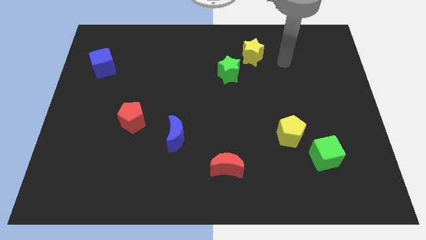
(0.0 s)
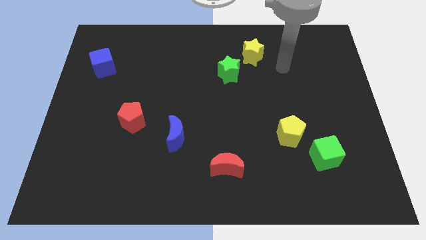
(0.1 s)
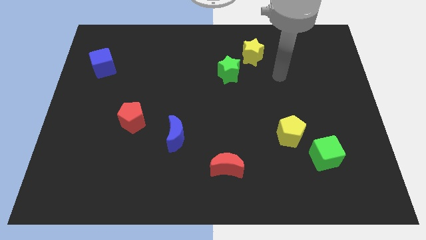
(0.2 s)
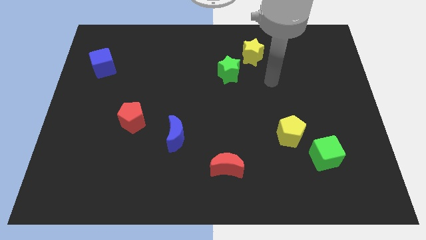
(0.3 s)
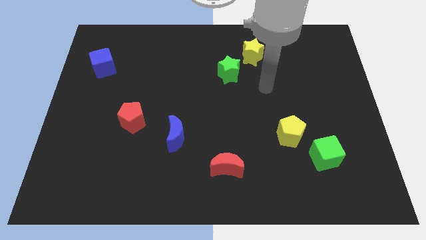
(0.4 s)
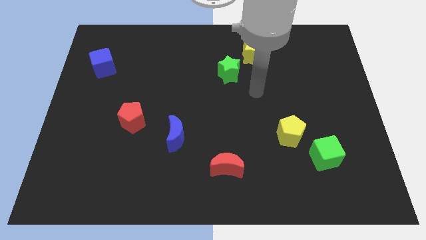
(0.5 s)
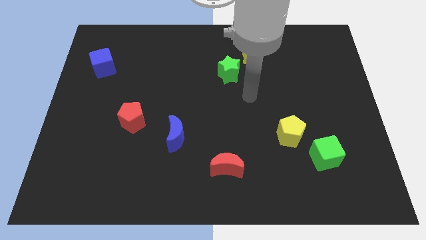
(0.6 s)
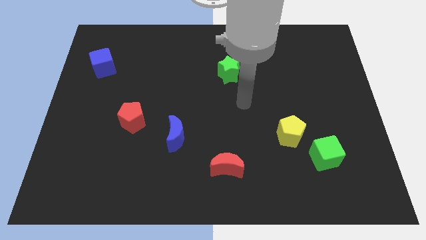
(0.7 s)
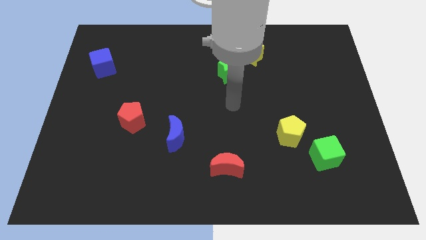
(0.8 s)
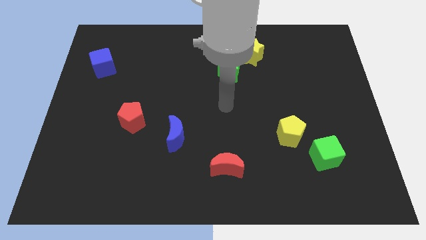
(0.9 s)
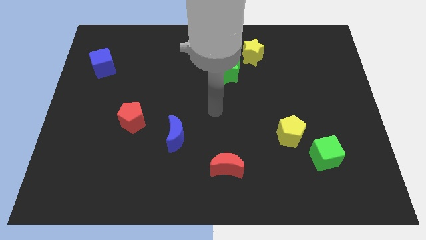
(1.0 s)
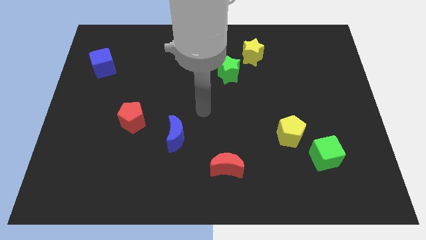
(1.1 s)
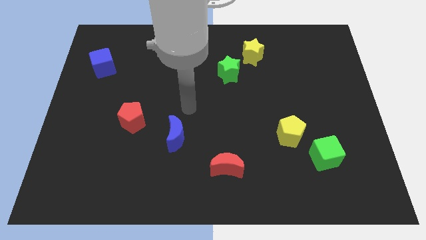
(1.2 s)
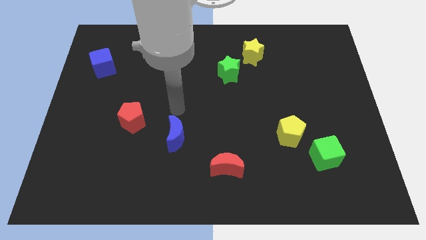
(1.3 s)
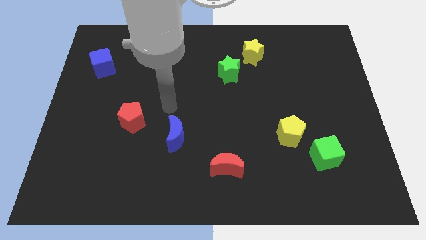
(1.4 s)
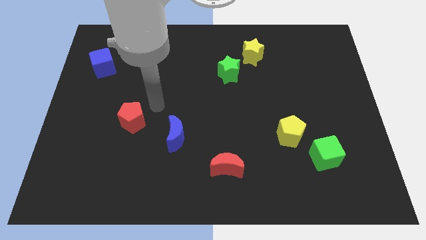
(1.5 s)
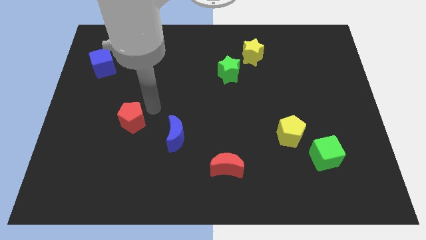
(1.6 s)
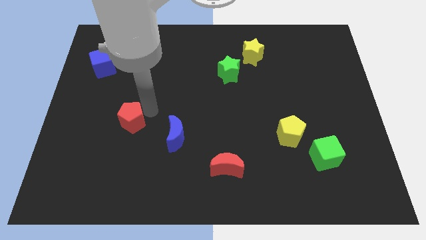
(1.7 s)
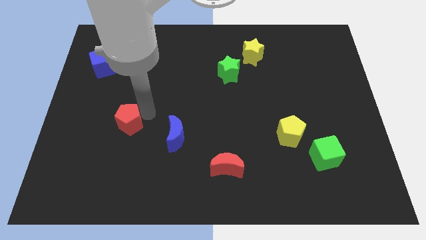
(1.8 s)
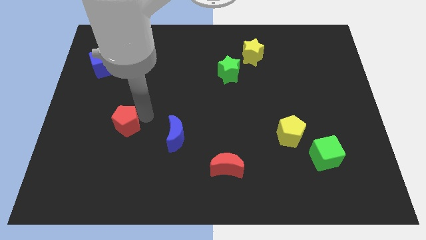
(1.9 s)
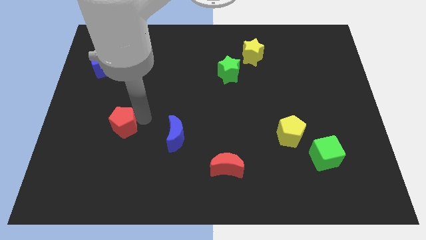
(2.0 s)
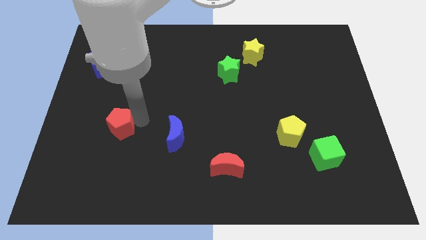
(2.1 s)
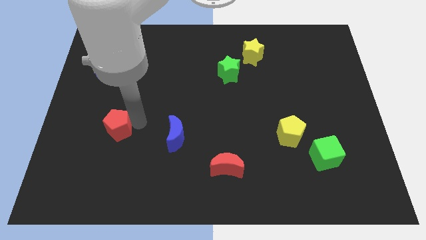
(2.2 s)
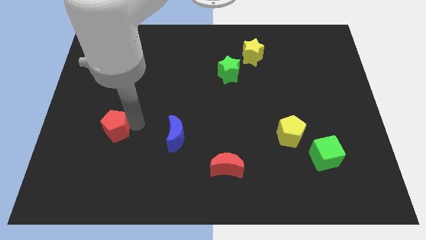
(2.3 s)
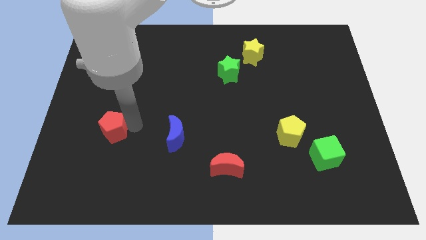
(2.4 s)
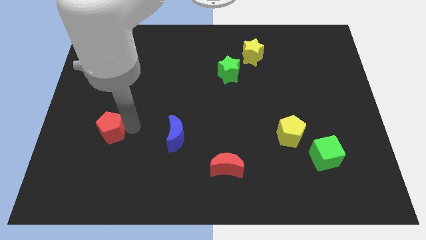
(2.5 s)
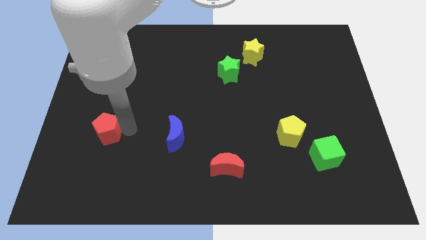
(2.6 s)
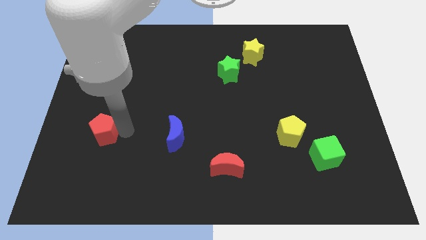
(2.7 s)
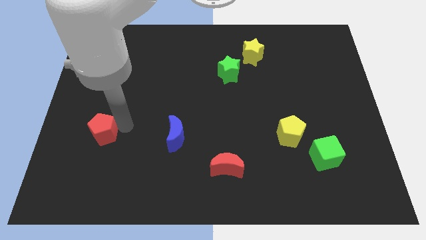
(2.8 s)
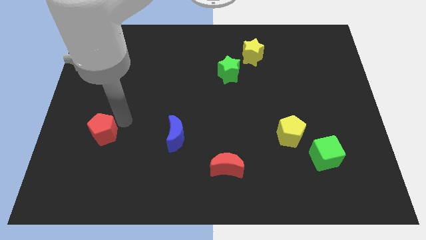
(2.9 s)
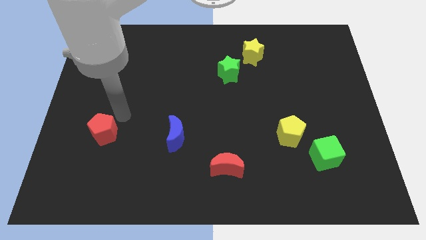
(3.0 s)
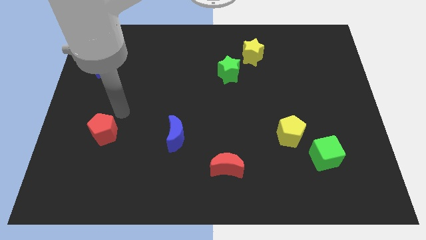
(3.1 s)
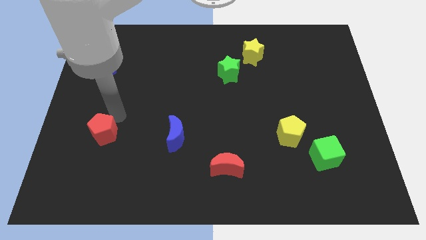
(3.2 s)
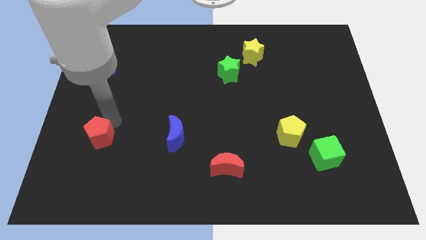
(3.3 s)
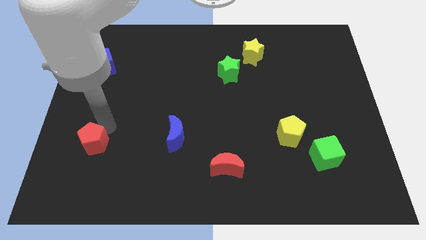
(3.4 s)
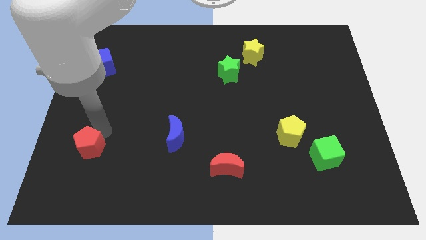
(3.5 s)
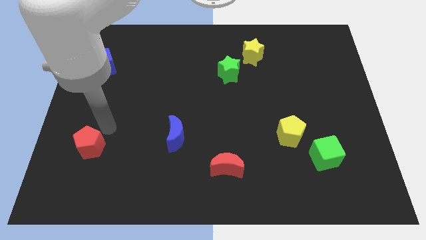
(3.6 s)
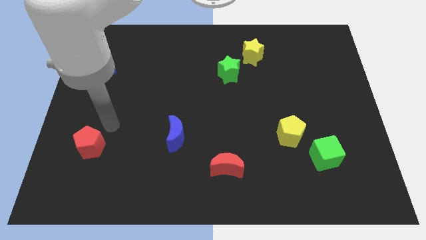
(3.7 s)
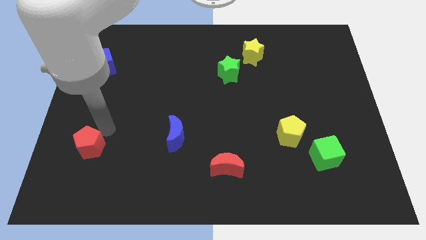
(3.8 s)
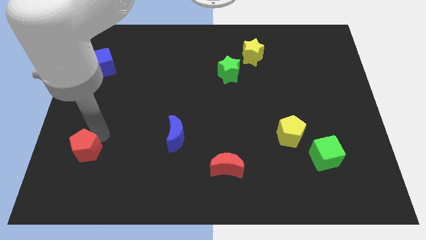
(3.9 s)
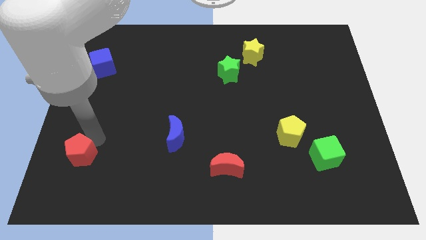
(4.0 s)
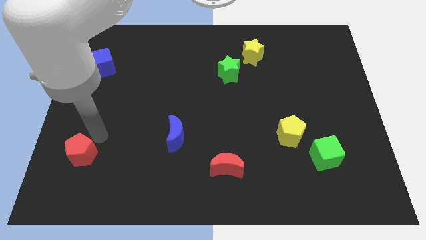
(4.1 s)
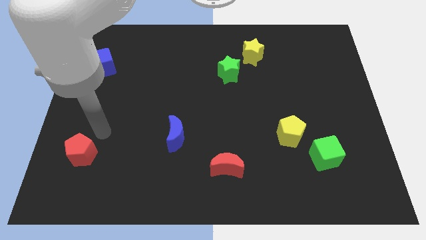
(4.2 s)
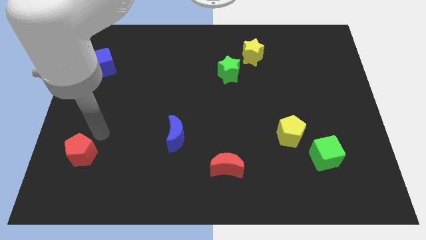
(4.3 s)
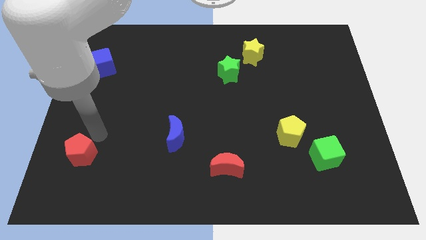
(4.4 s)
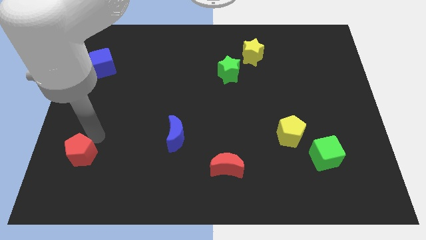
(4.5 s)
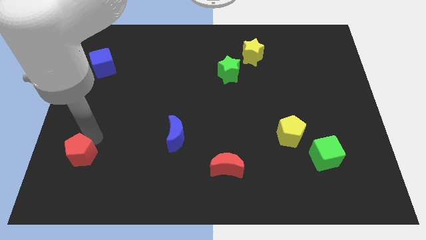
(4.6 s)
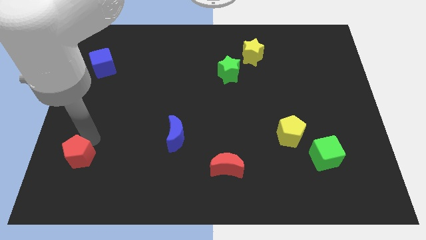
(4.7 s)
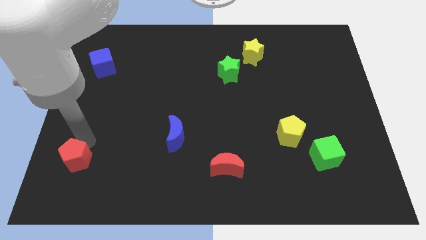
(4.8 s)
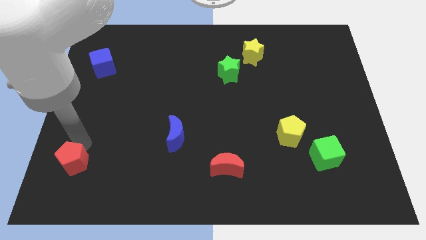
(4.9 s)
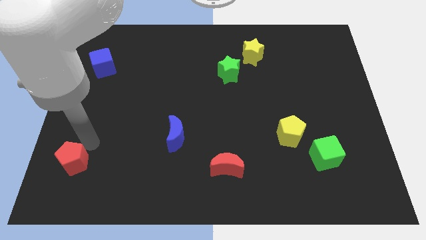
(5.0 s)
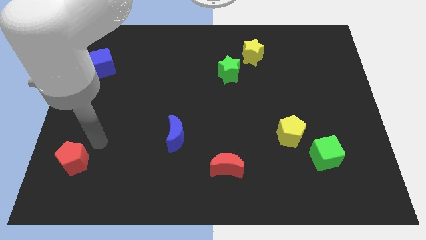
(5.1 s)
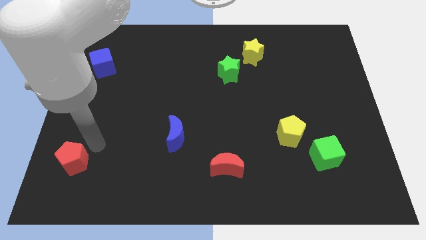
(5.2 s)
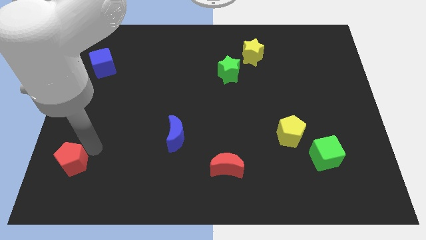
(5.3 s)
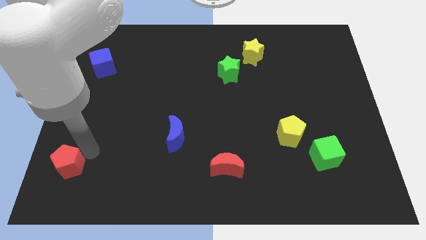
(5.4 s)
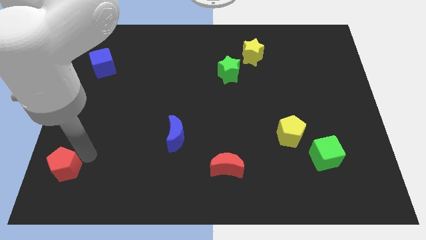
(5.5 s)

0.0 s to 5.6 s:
put the red pentagon to the bottom left of the board

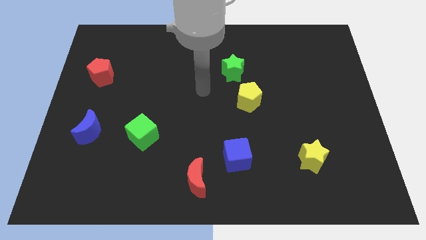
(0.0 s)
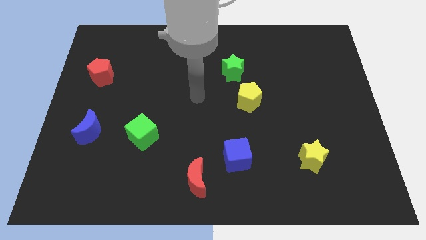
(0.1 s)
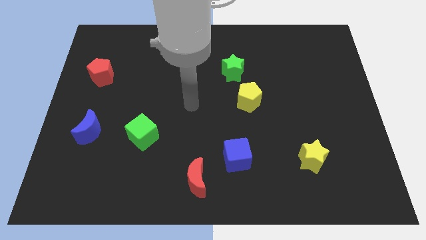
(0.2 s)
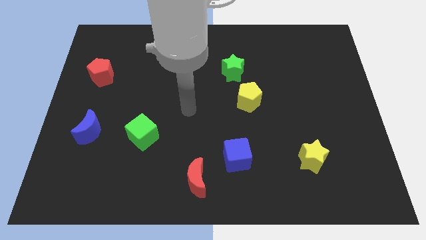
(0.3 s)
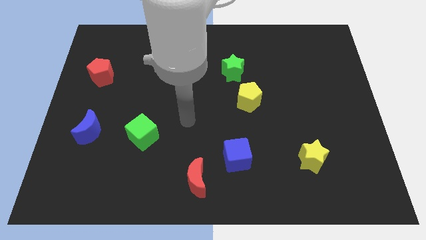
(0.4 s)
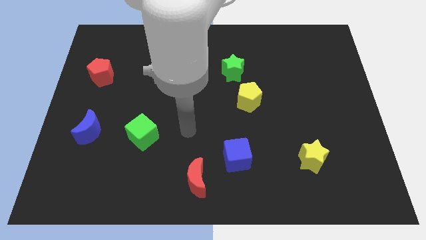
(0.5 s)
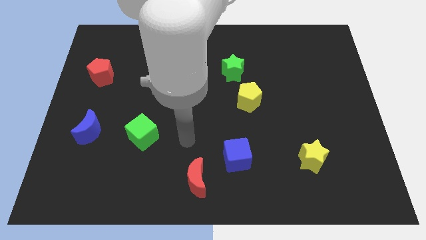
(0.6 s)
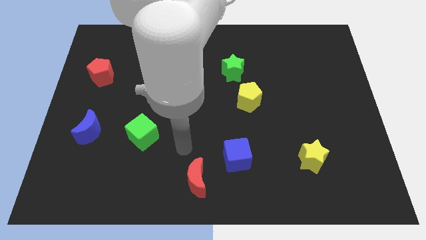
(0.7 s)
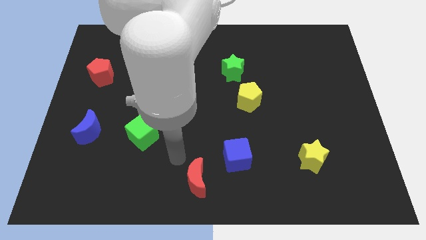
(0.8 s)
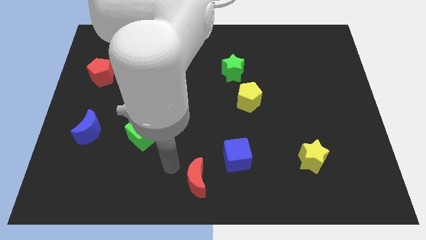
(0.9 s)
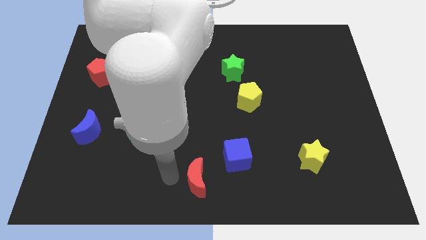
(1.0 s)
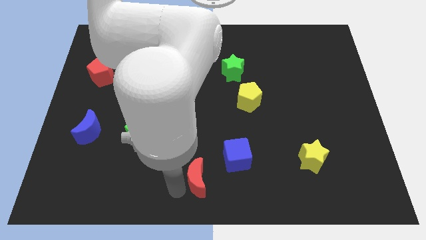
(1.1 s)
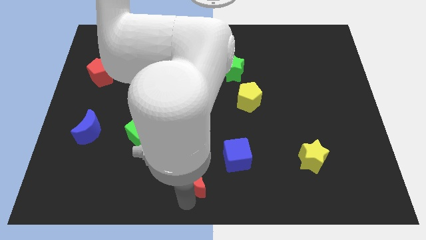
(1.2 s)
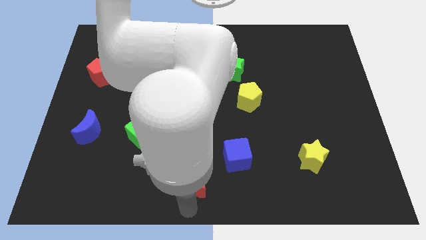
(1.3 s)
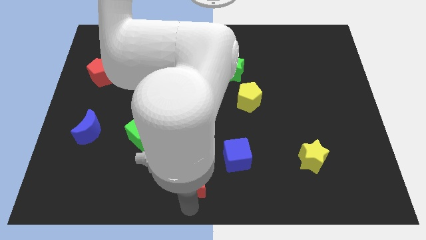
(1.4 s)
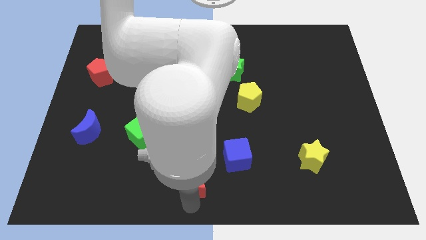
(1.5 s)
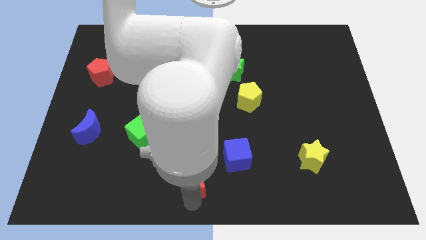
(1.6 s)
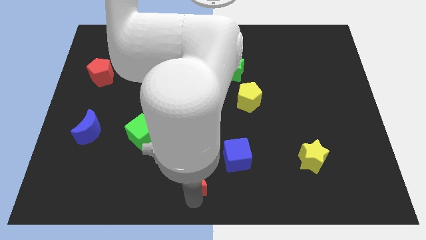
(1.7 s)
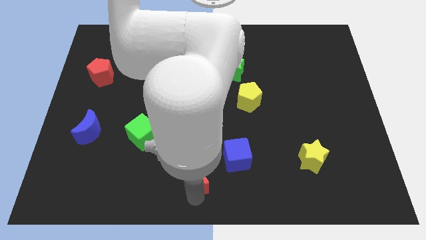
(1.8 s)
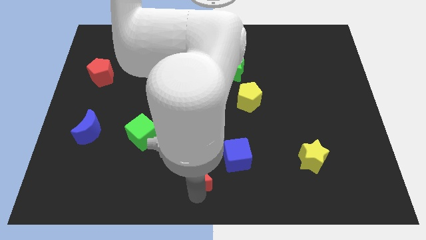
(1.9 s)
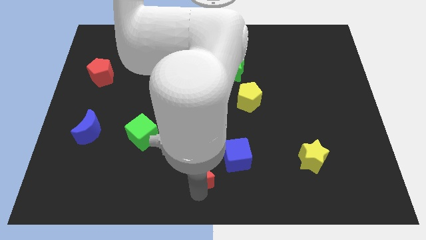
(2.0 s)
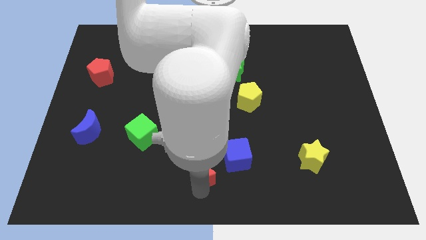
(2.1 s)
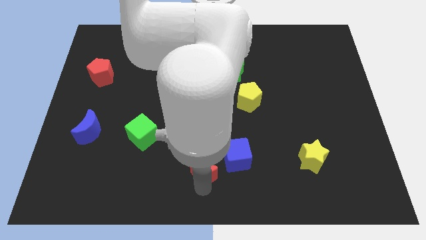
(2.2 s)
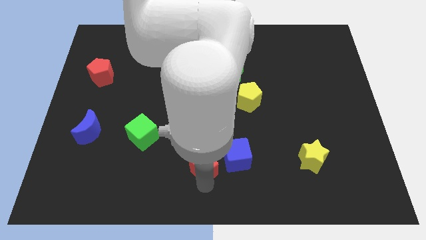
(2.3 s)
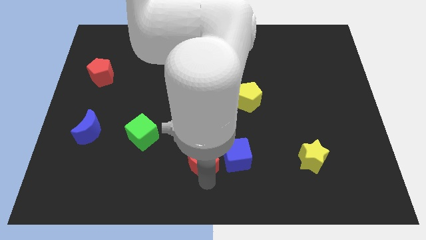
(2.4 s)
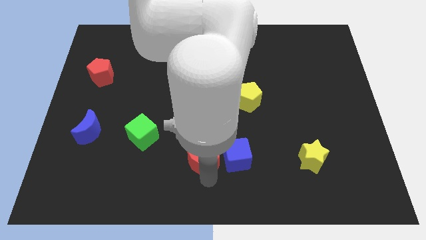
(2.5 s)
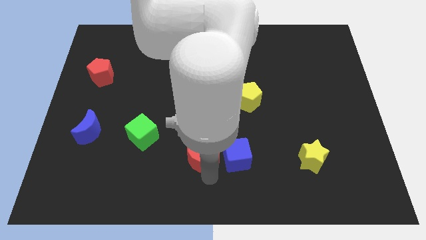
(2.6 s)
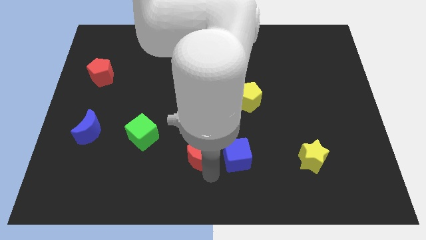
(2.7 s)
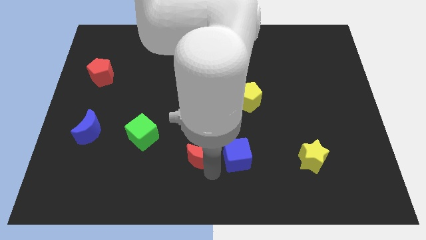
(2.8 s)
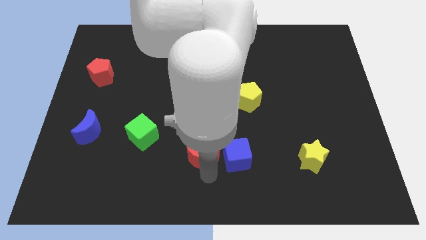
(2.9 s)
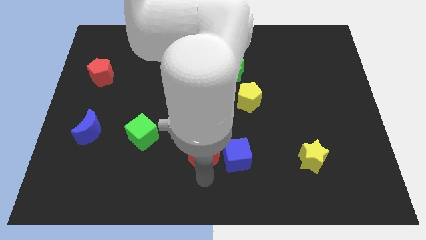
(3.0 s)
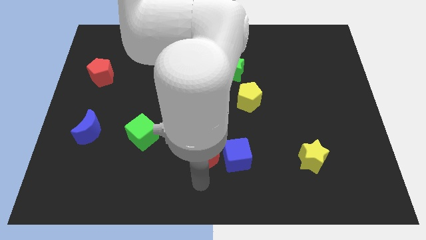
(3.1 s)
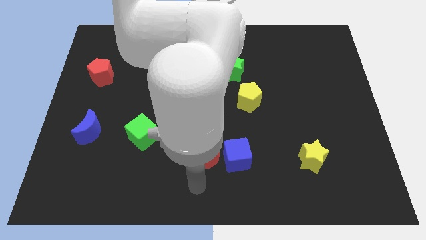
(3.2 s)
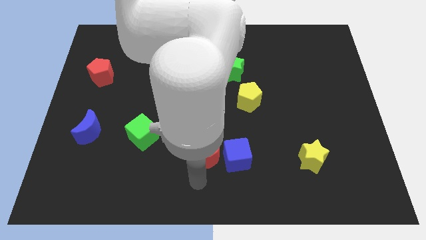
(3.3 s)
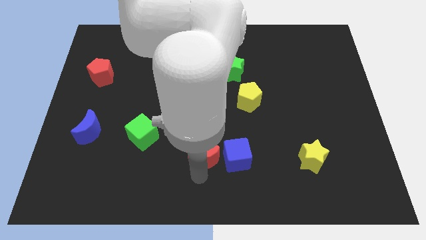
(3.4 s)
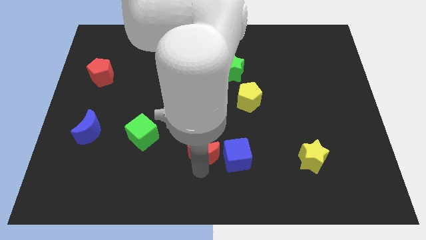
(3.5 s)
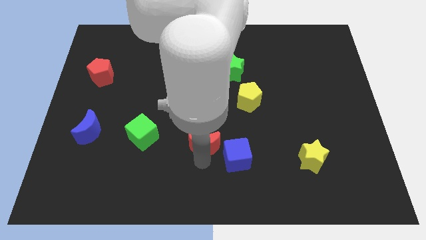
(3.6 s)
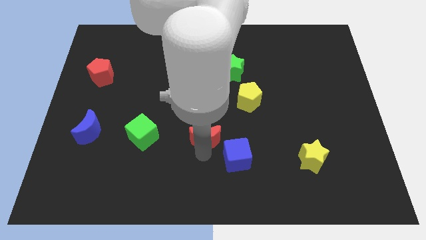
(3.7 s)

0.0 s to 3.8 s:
move the red moon to the center of the board
